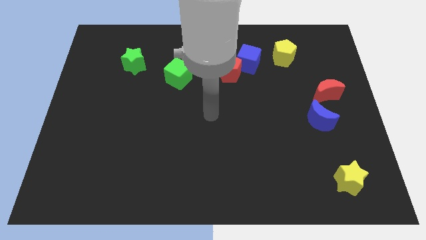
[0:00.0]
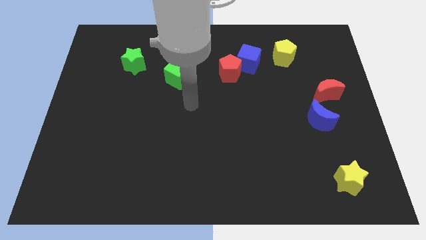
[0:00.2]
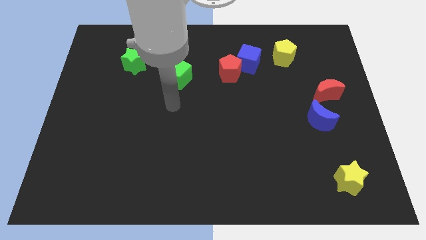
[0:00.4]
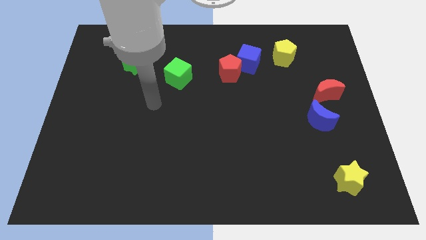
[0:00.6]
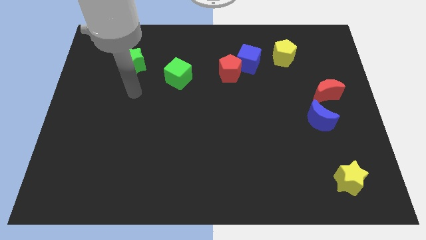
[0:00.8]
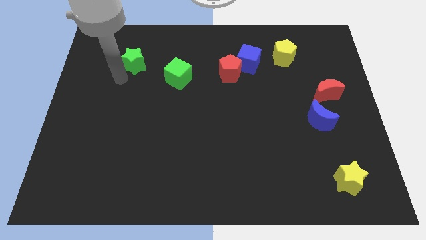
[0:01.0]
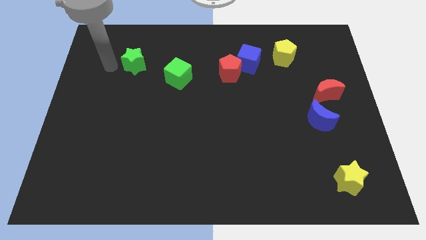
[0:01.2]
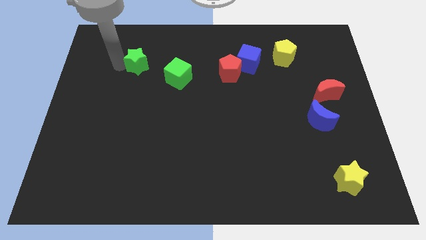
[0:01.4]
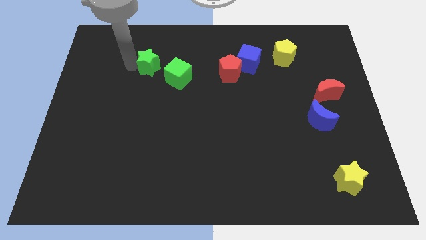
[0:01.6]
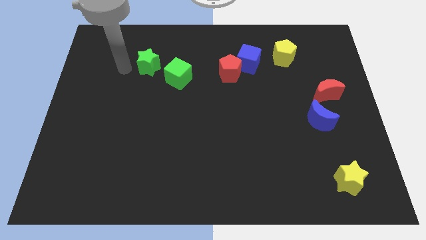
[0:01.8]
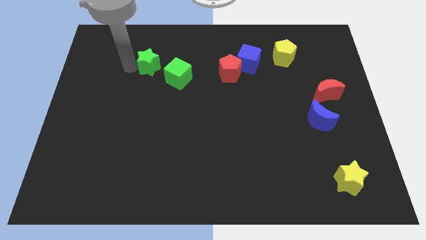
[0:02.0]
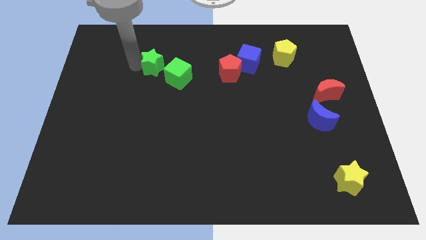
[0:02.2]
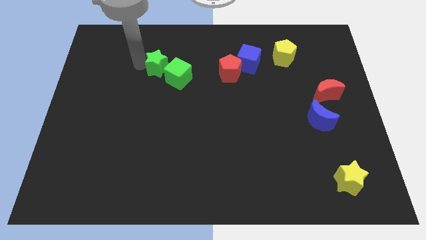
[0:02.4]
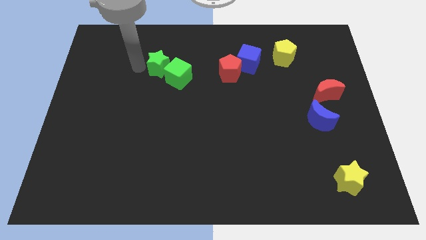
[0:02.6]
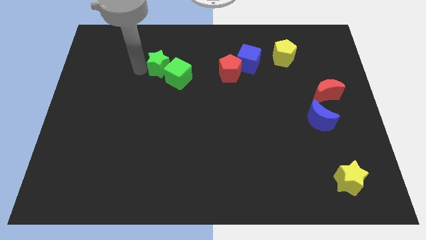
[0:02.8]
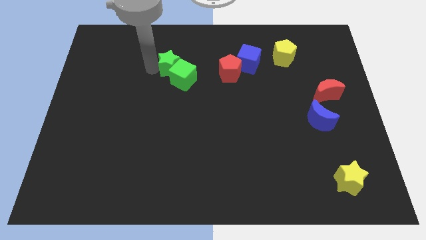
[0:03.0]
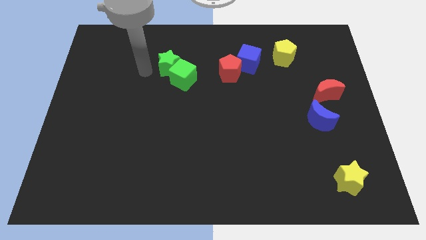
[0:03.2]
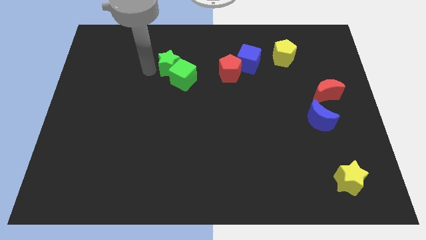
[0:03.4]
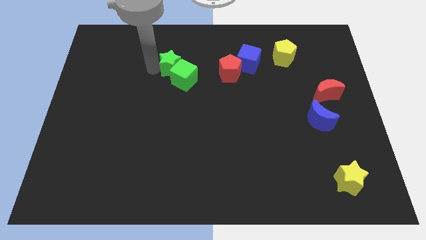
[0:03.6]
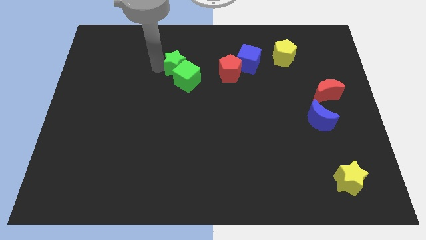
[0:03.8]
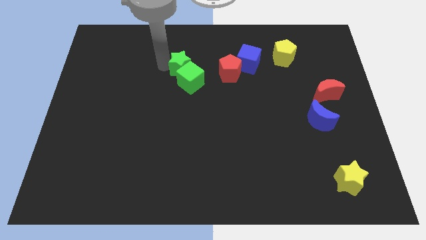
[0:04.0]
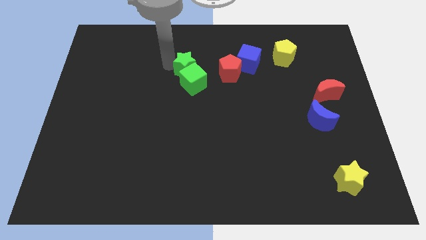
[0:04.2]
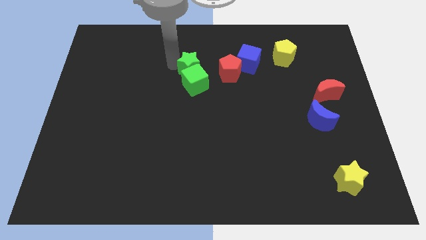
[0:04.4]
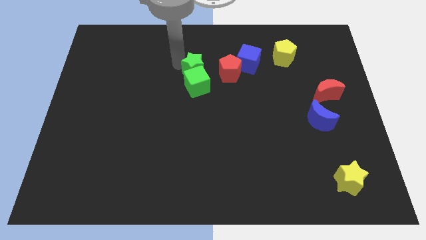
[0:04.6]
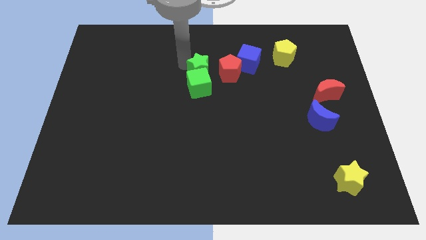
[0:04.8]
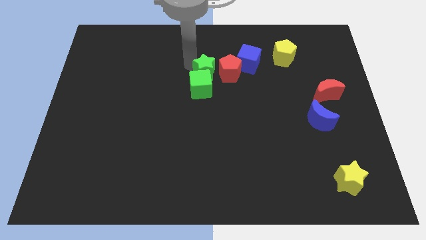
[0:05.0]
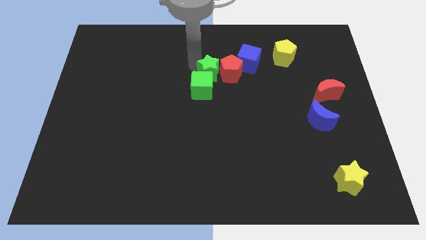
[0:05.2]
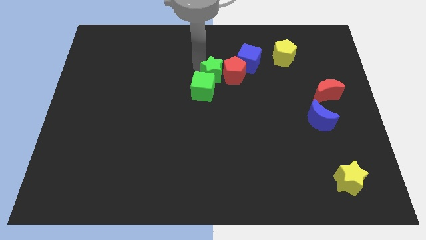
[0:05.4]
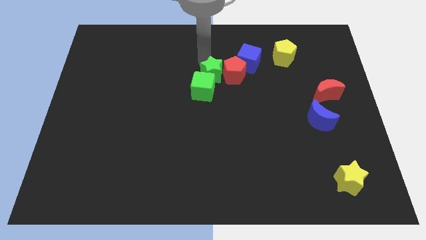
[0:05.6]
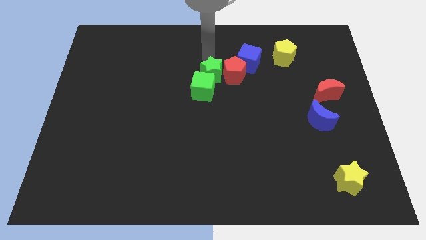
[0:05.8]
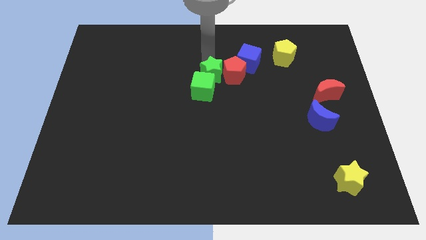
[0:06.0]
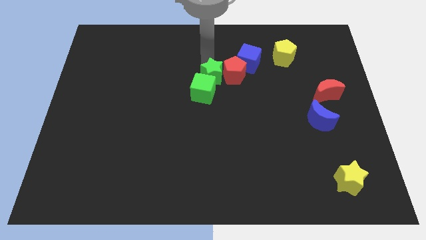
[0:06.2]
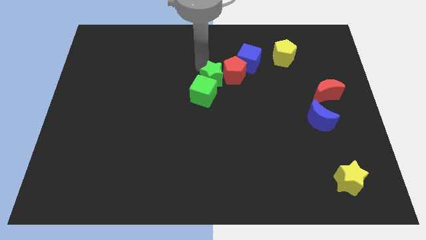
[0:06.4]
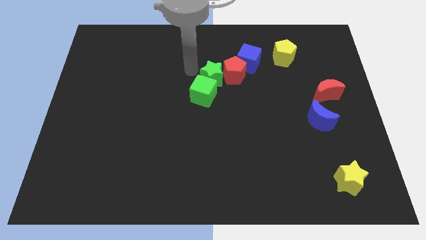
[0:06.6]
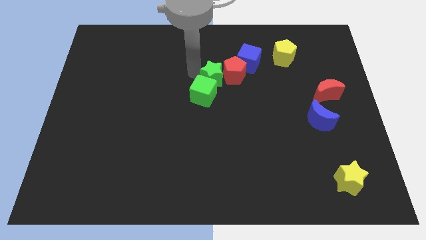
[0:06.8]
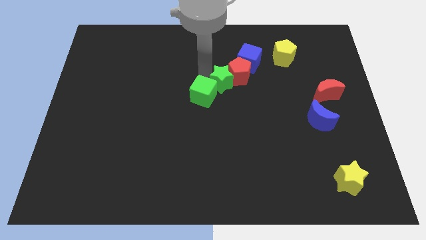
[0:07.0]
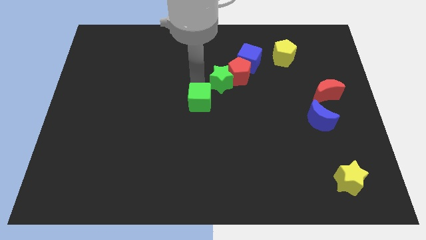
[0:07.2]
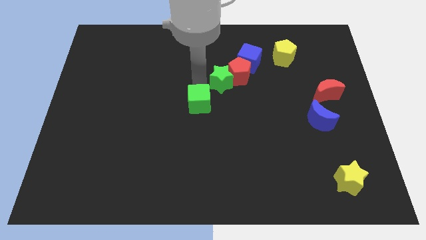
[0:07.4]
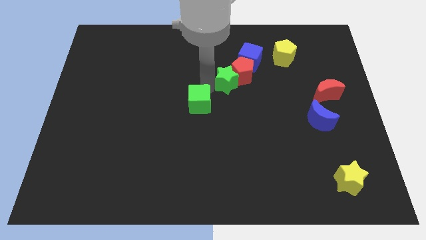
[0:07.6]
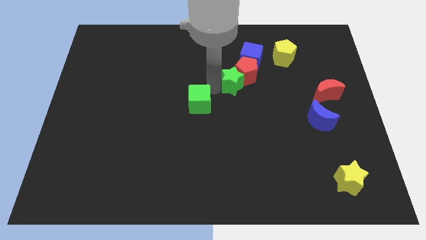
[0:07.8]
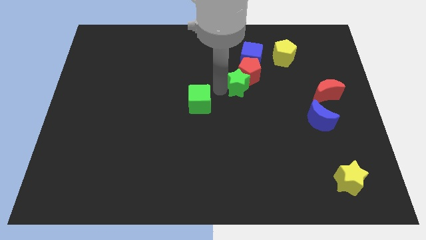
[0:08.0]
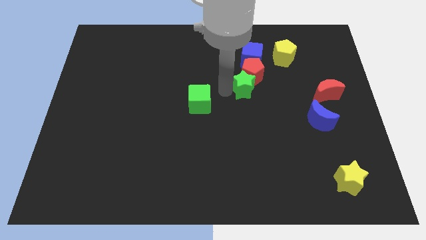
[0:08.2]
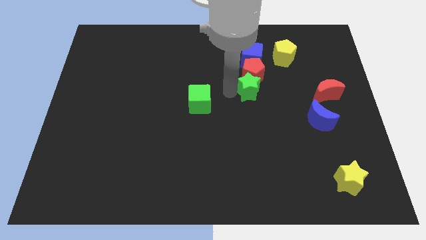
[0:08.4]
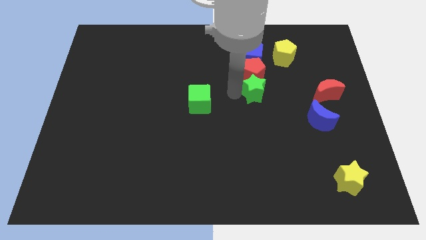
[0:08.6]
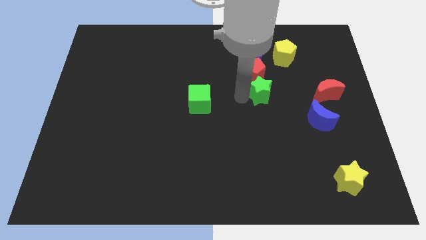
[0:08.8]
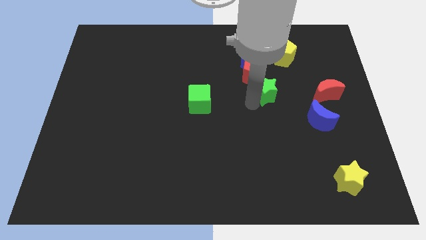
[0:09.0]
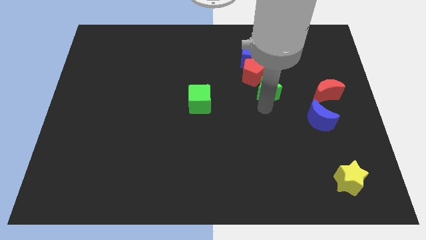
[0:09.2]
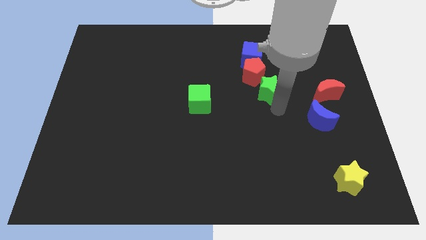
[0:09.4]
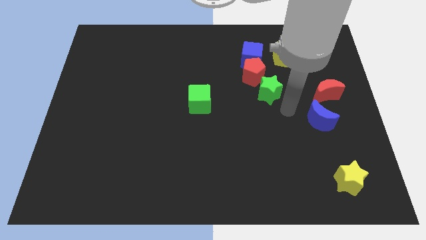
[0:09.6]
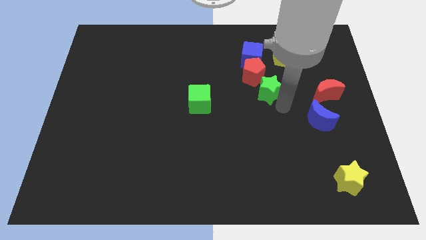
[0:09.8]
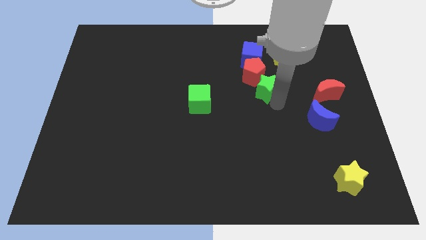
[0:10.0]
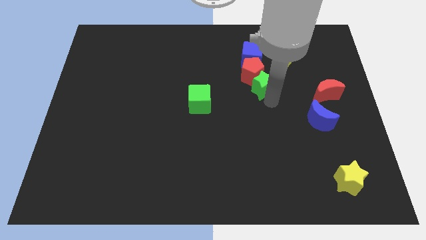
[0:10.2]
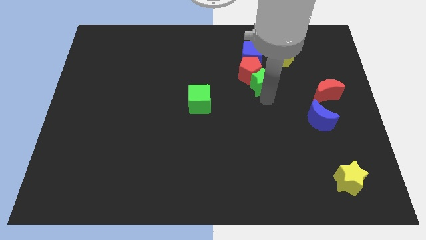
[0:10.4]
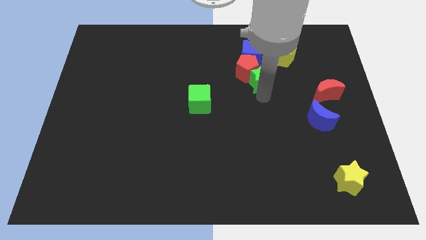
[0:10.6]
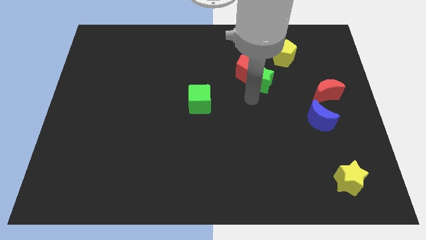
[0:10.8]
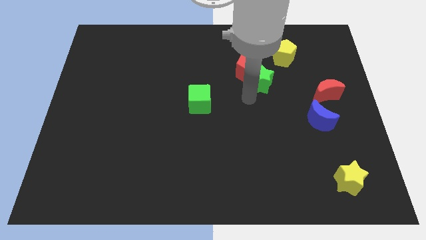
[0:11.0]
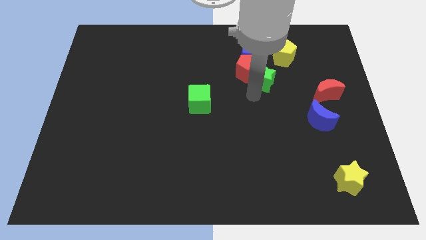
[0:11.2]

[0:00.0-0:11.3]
put the green star to the bottom right side of the blue cube

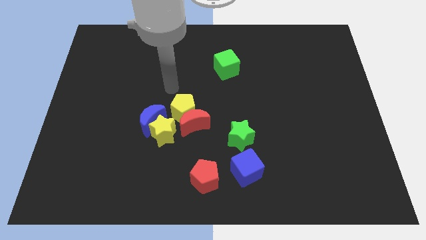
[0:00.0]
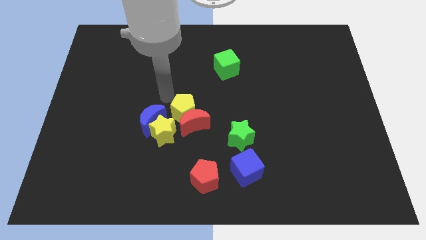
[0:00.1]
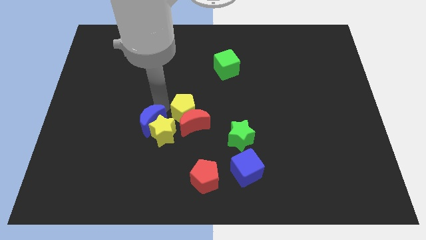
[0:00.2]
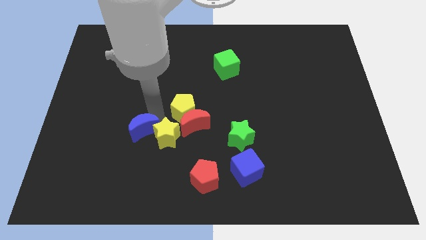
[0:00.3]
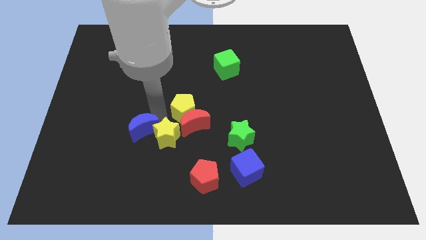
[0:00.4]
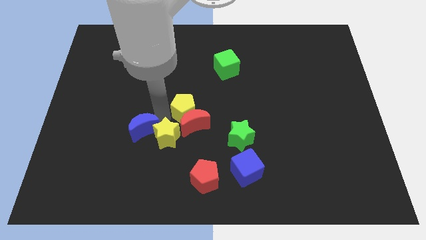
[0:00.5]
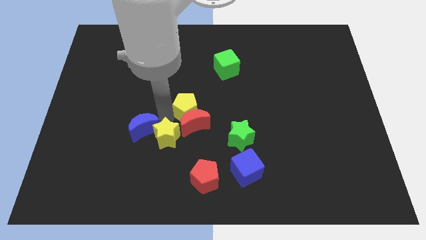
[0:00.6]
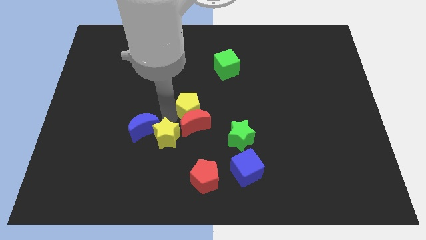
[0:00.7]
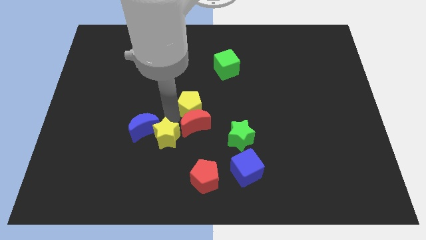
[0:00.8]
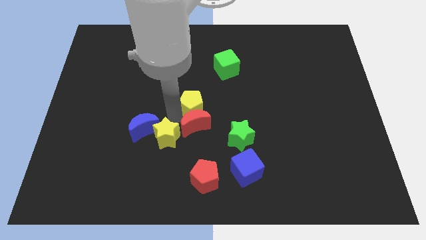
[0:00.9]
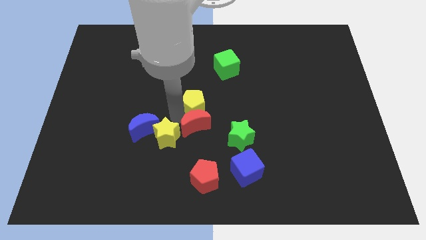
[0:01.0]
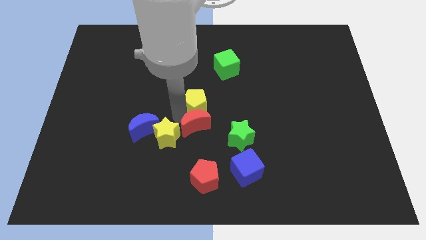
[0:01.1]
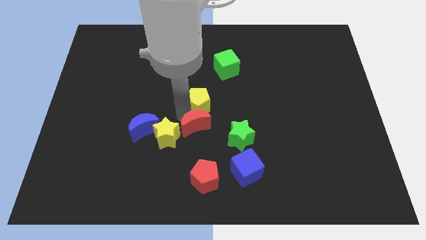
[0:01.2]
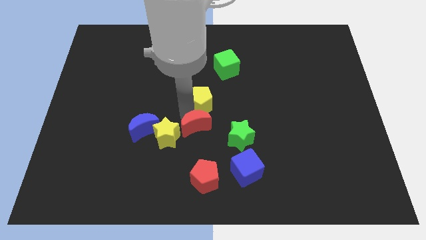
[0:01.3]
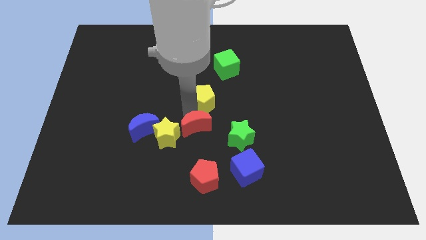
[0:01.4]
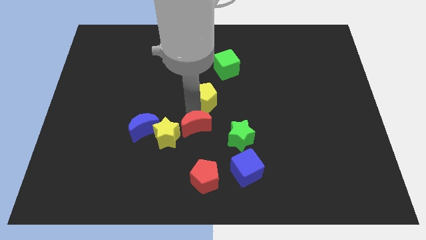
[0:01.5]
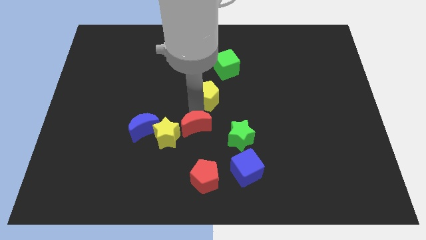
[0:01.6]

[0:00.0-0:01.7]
move the yellow pentagon to the bottom side of the green cube
